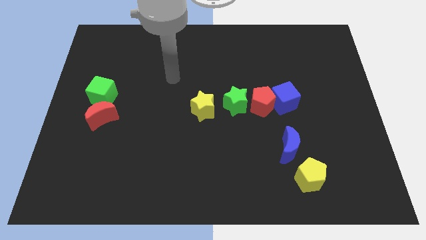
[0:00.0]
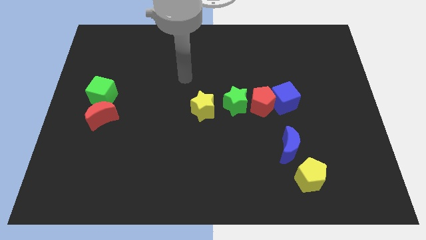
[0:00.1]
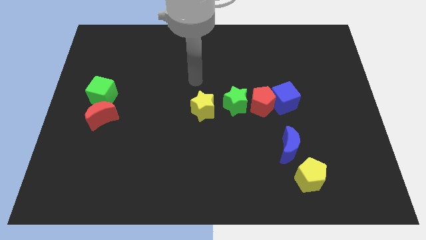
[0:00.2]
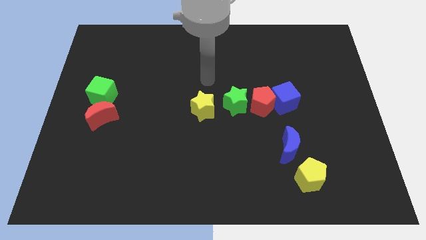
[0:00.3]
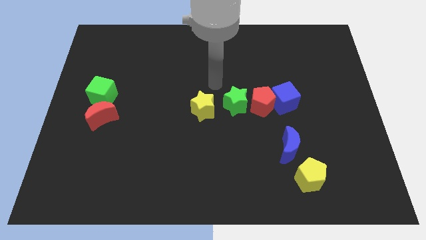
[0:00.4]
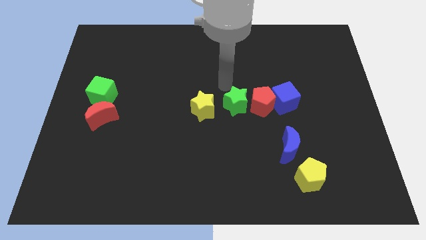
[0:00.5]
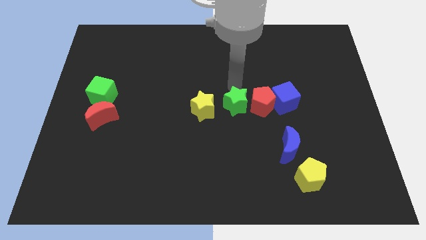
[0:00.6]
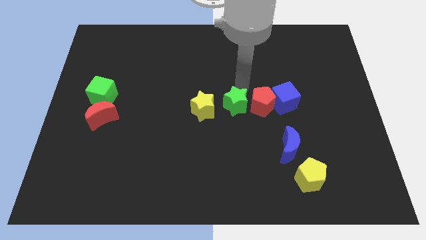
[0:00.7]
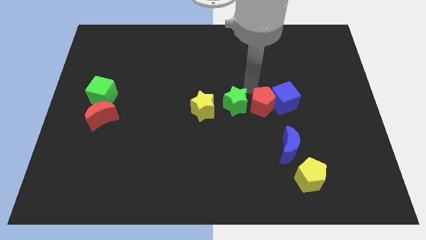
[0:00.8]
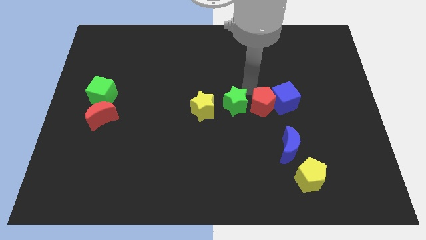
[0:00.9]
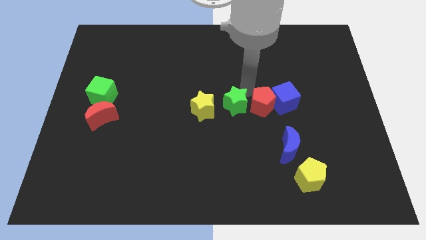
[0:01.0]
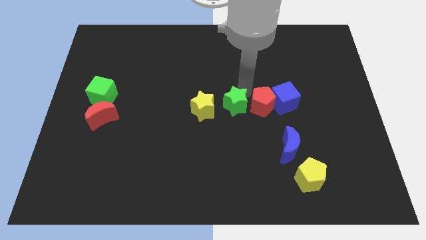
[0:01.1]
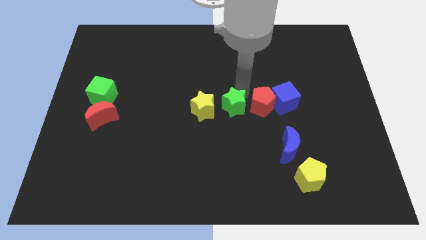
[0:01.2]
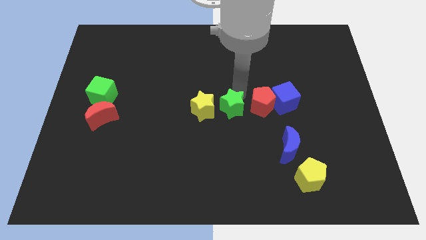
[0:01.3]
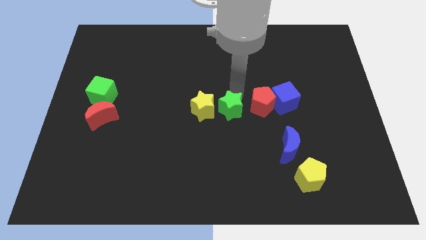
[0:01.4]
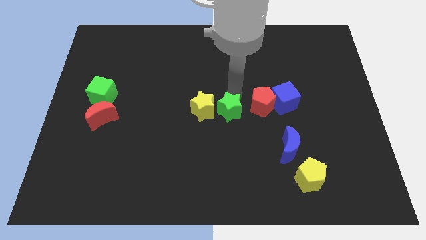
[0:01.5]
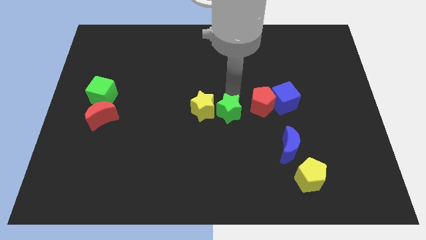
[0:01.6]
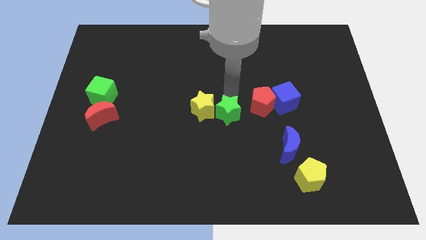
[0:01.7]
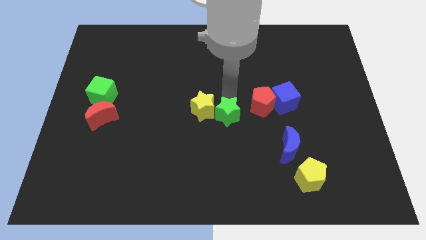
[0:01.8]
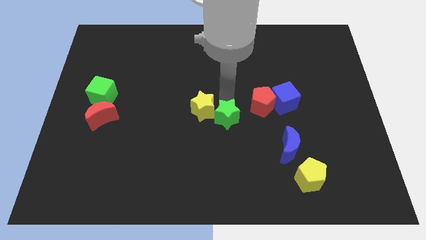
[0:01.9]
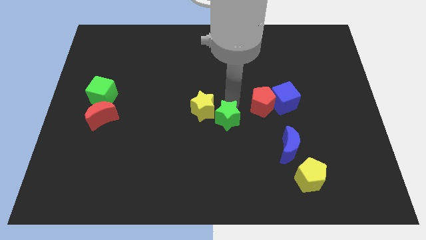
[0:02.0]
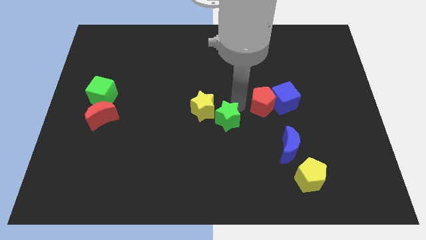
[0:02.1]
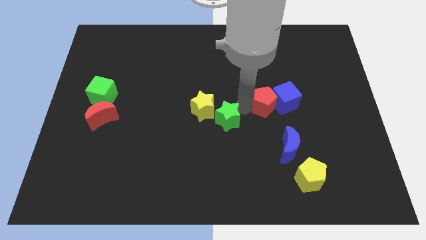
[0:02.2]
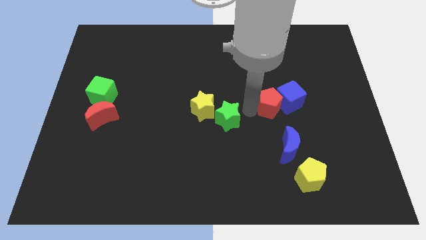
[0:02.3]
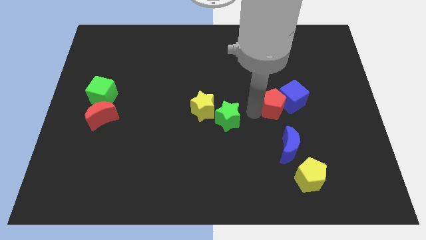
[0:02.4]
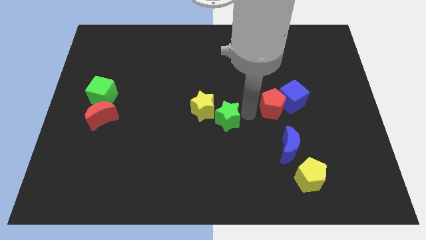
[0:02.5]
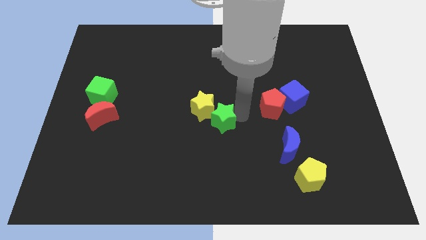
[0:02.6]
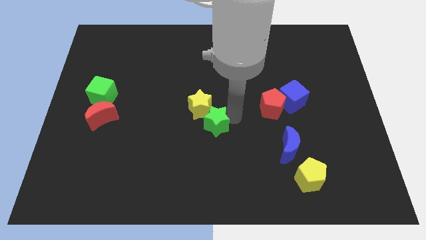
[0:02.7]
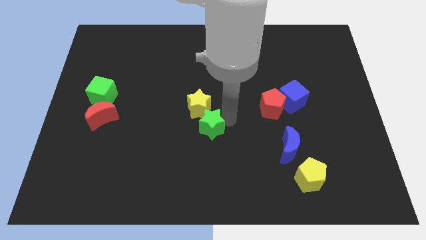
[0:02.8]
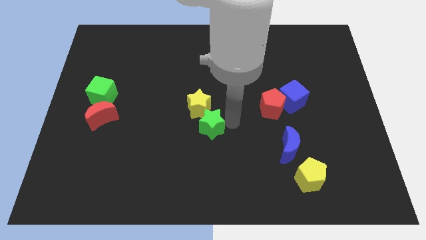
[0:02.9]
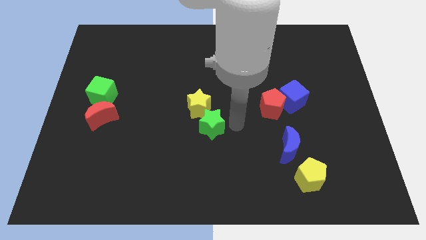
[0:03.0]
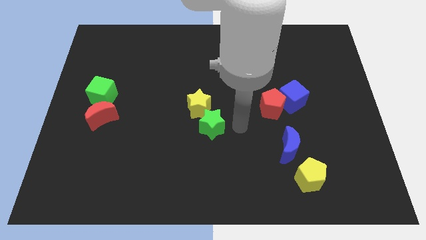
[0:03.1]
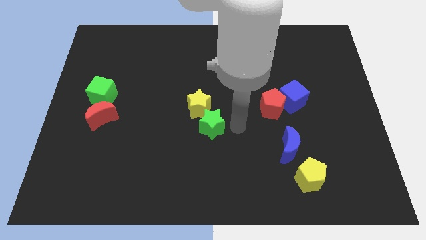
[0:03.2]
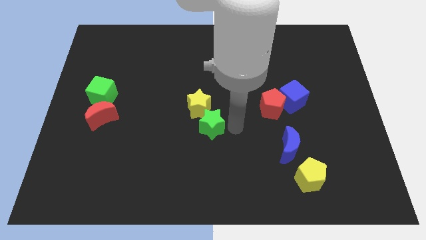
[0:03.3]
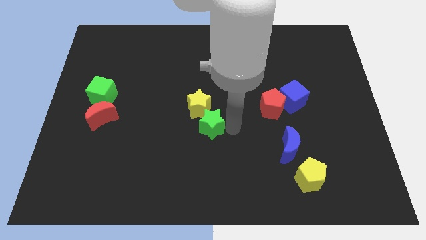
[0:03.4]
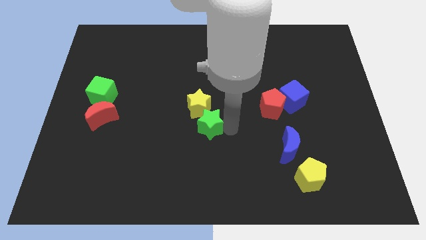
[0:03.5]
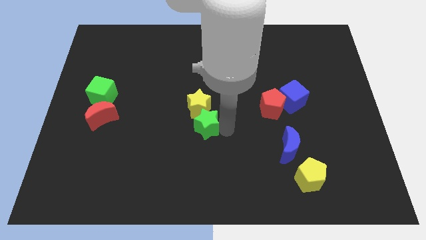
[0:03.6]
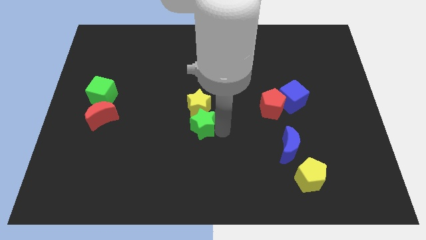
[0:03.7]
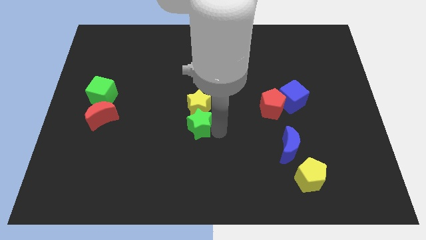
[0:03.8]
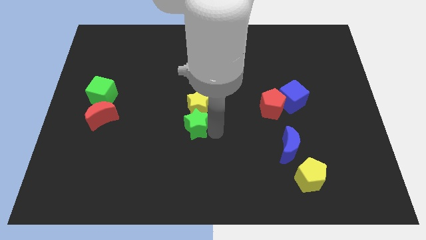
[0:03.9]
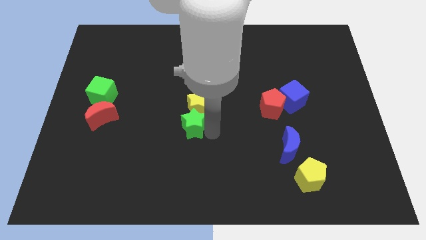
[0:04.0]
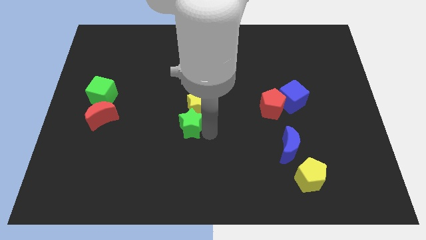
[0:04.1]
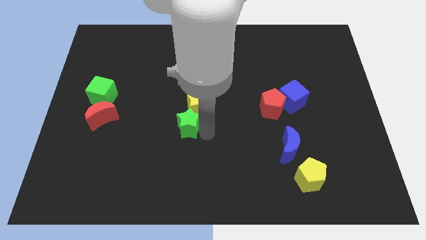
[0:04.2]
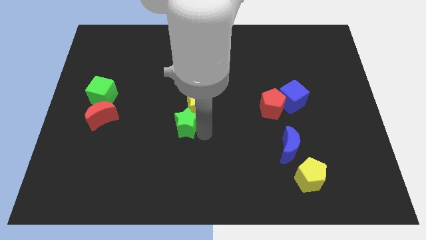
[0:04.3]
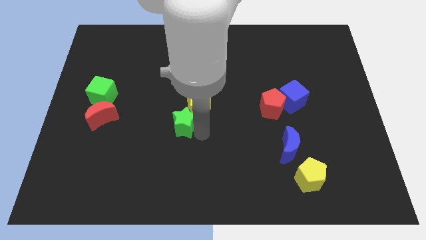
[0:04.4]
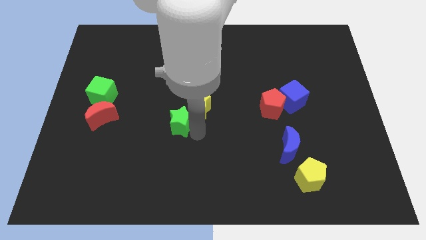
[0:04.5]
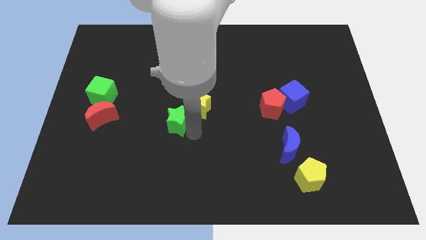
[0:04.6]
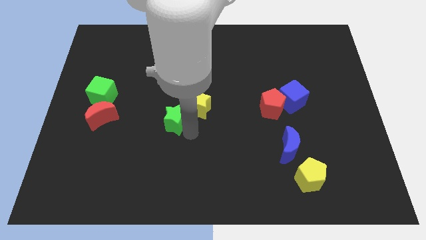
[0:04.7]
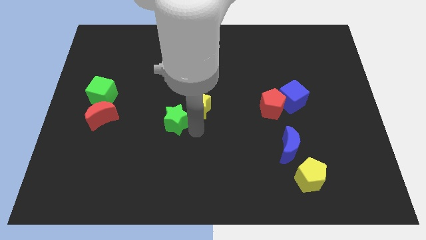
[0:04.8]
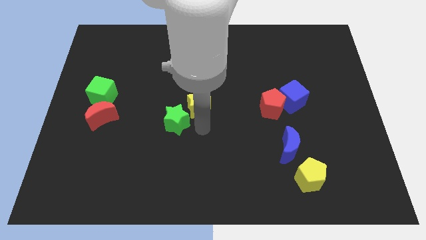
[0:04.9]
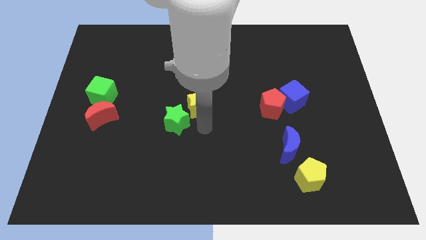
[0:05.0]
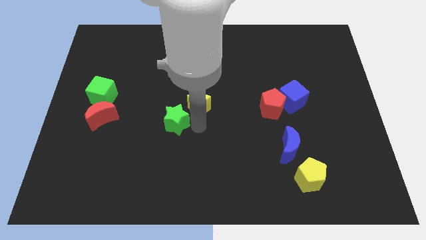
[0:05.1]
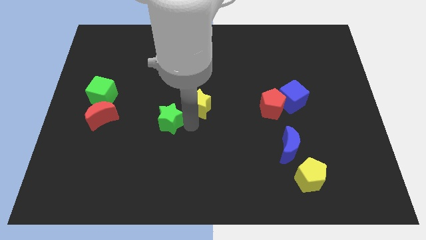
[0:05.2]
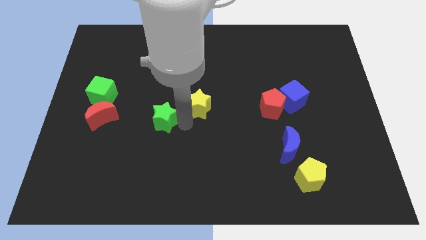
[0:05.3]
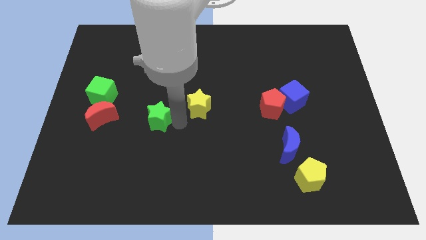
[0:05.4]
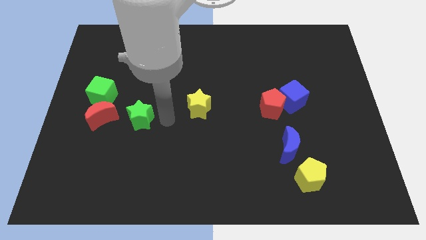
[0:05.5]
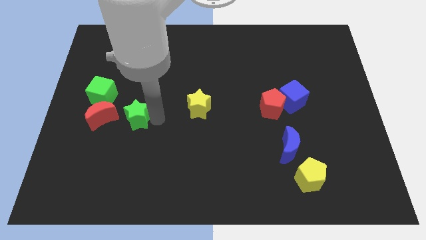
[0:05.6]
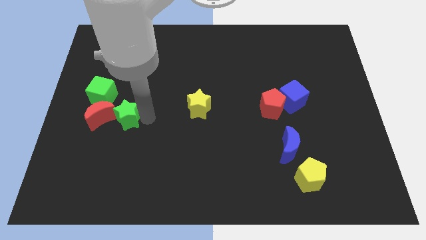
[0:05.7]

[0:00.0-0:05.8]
slide the green star towards the red moon

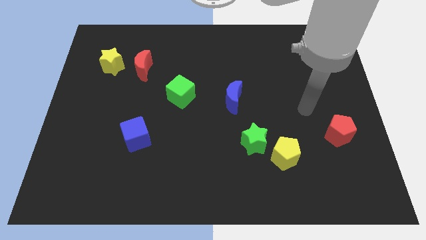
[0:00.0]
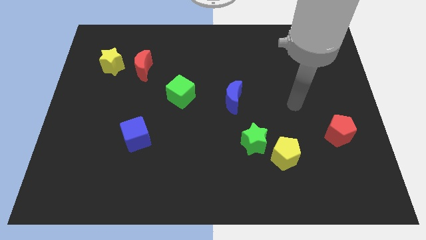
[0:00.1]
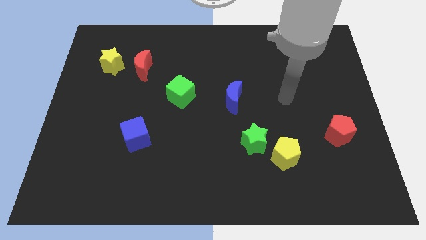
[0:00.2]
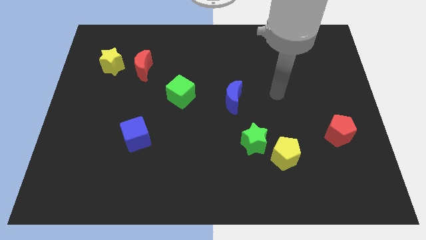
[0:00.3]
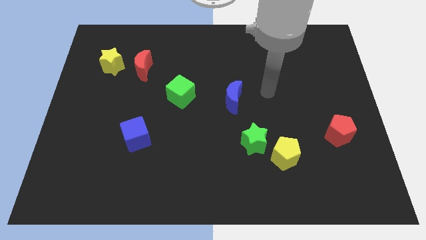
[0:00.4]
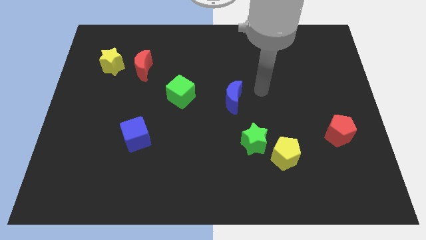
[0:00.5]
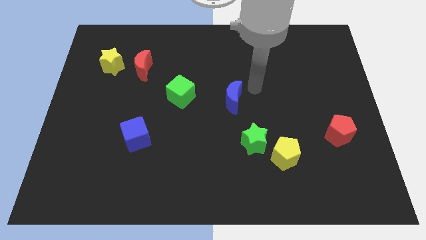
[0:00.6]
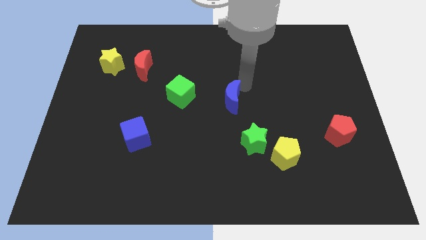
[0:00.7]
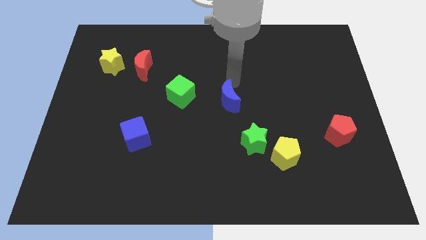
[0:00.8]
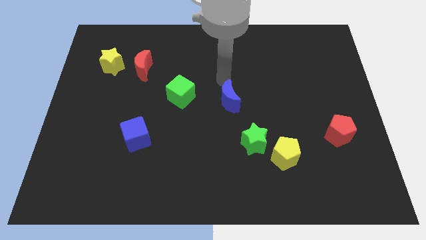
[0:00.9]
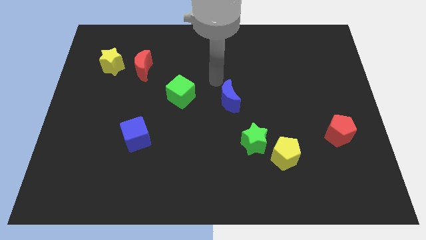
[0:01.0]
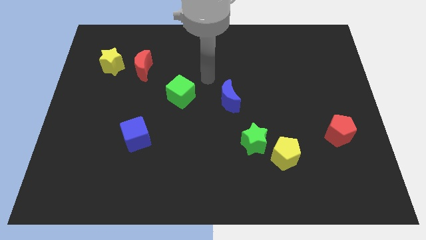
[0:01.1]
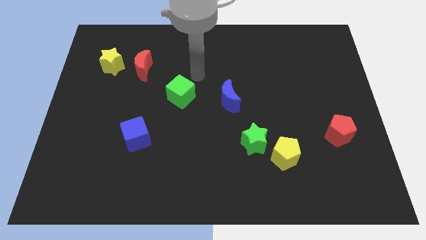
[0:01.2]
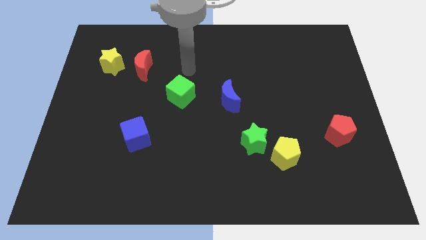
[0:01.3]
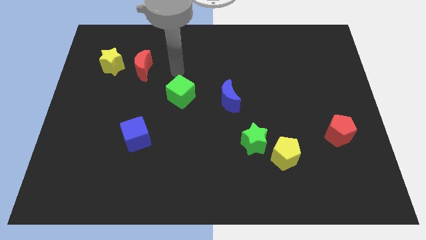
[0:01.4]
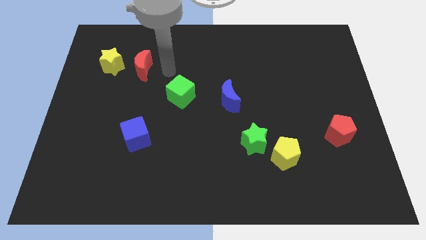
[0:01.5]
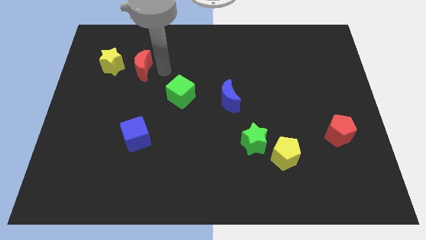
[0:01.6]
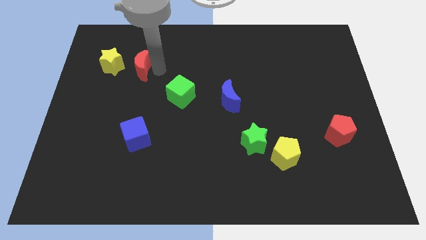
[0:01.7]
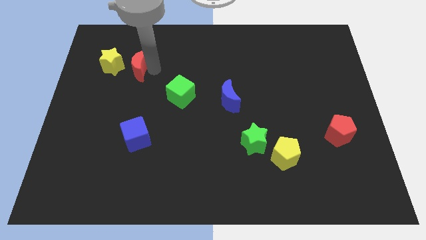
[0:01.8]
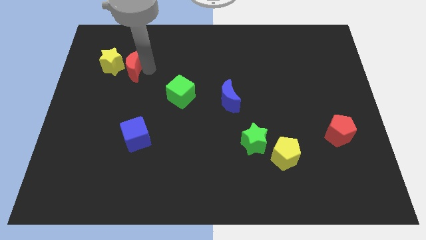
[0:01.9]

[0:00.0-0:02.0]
move the red moon towards the yellow star

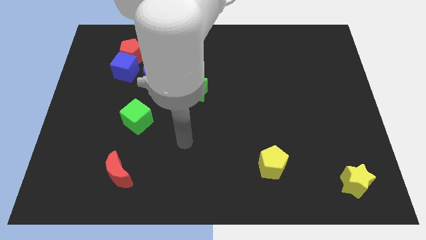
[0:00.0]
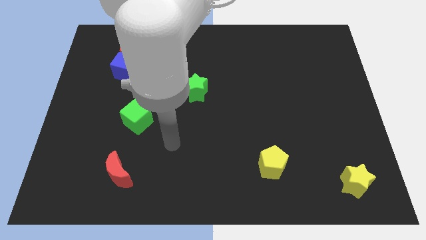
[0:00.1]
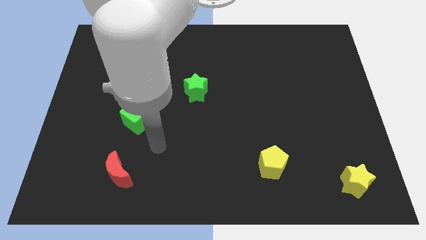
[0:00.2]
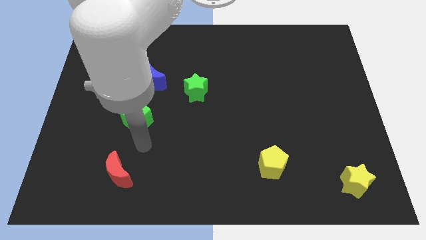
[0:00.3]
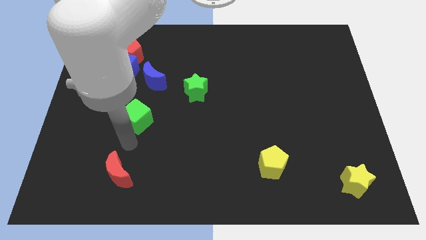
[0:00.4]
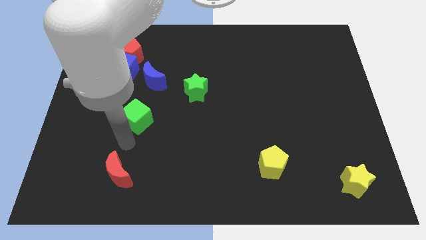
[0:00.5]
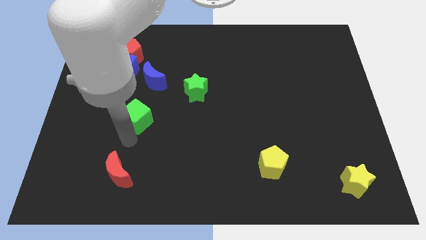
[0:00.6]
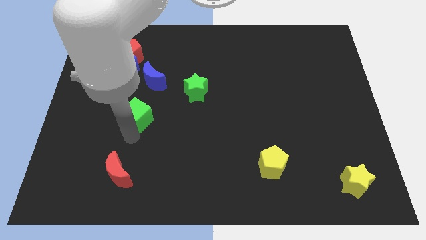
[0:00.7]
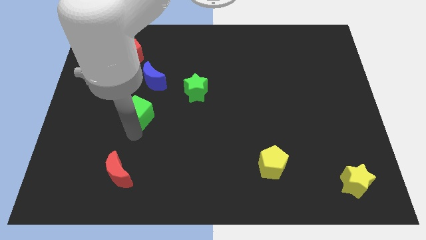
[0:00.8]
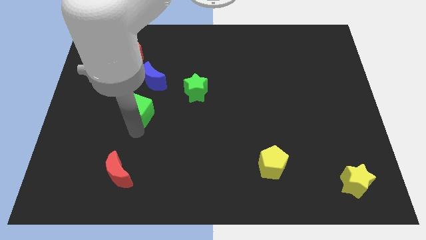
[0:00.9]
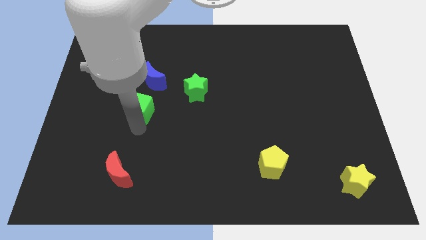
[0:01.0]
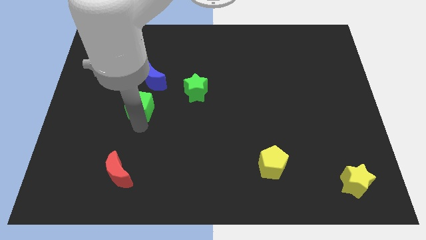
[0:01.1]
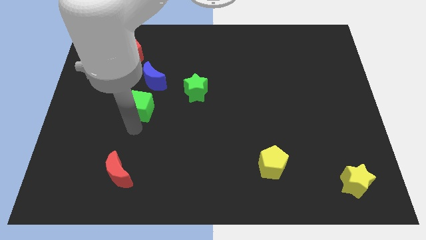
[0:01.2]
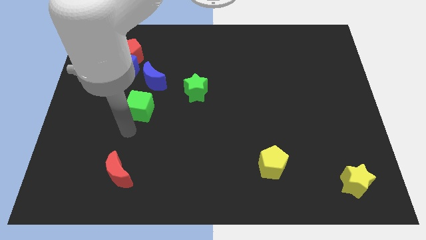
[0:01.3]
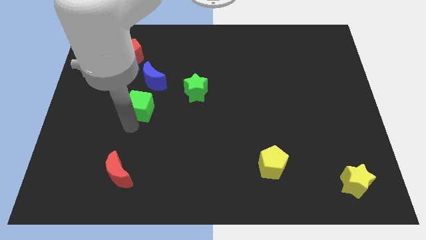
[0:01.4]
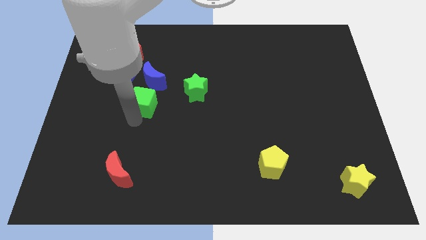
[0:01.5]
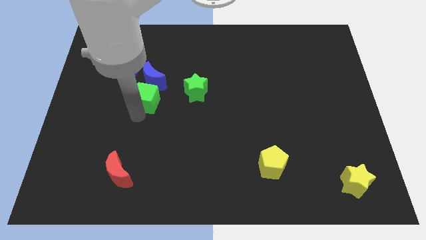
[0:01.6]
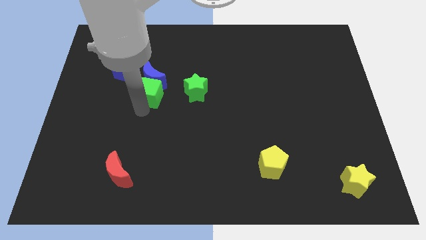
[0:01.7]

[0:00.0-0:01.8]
push the green cube close to the blue moon
